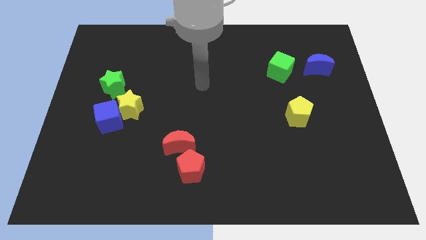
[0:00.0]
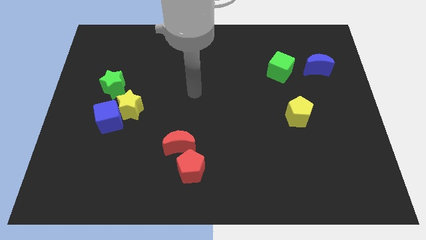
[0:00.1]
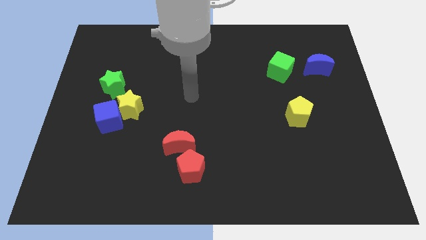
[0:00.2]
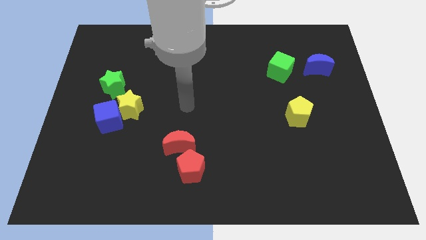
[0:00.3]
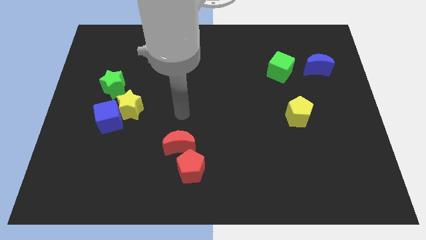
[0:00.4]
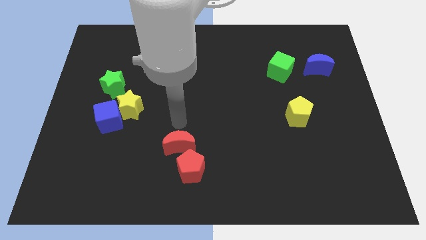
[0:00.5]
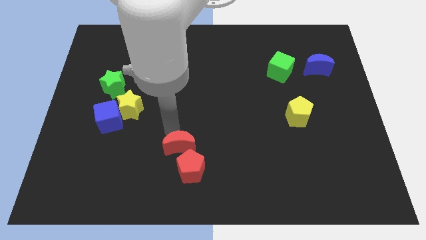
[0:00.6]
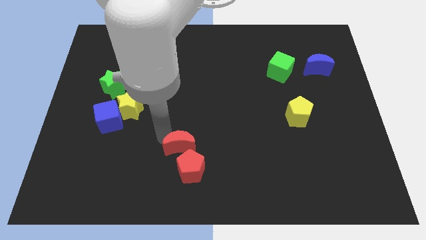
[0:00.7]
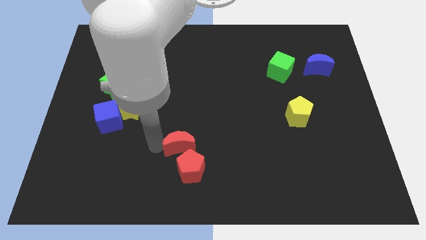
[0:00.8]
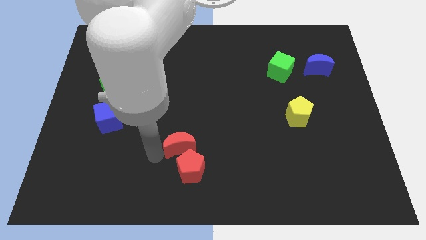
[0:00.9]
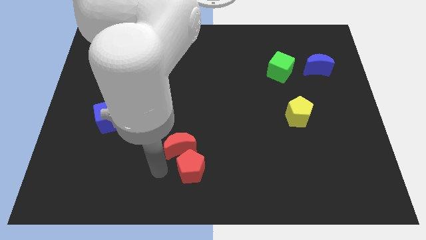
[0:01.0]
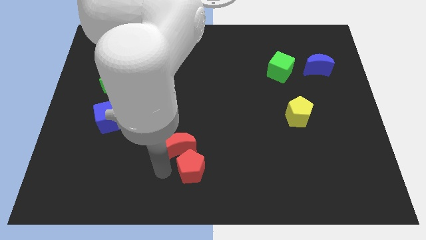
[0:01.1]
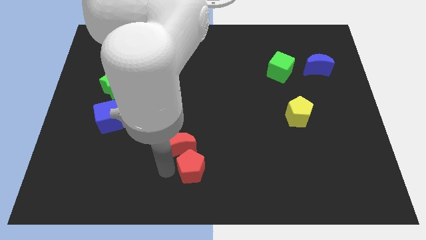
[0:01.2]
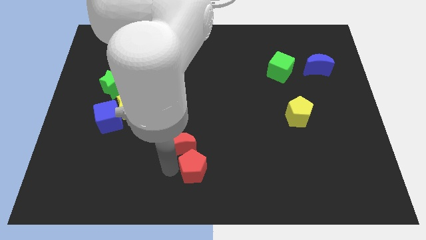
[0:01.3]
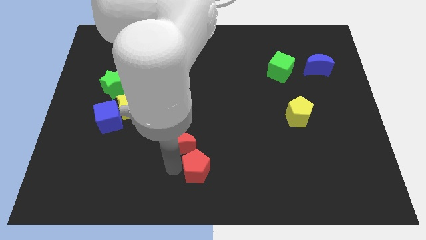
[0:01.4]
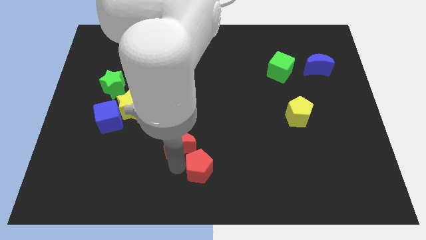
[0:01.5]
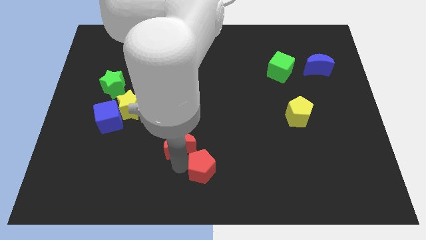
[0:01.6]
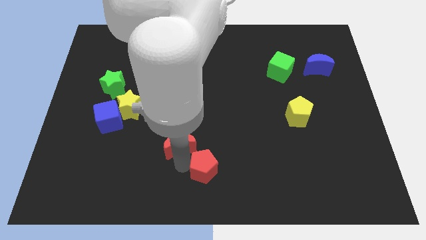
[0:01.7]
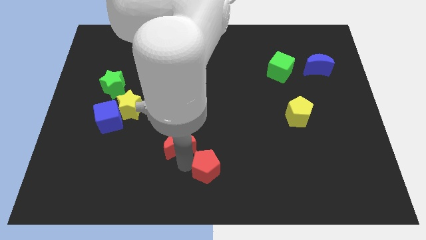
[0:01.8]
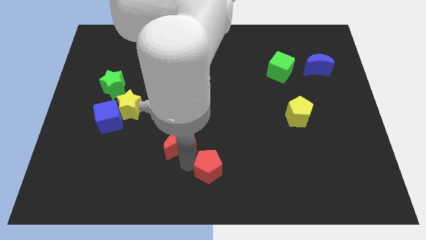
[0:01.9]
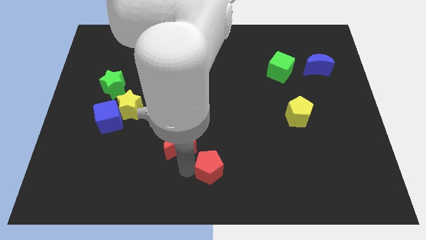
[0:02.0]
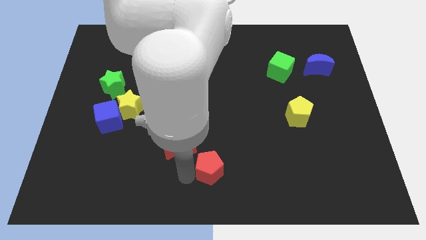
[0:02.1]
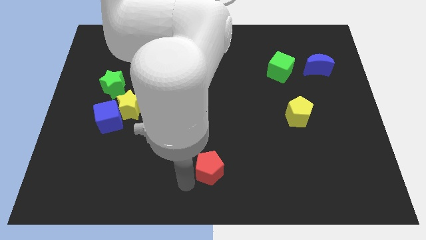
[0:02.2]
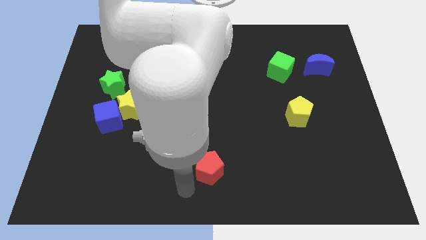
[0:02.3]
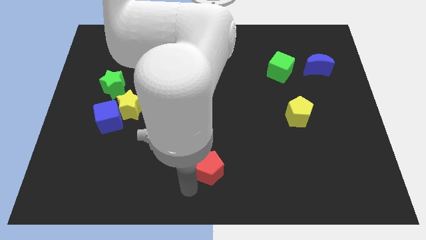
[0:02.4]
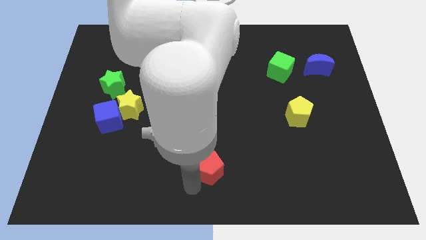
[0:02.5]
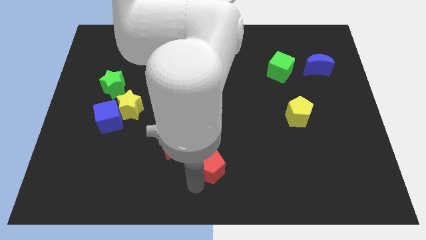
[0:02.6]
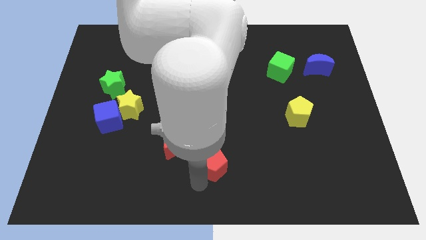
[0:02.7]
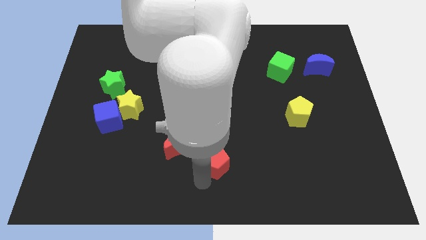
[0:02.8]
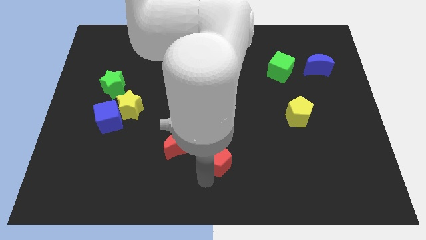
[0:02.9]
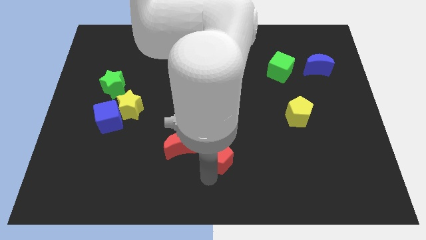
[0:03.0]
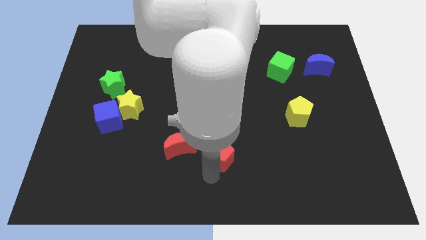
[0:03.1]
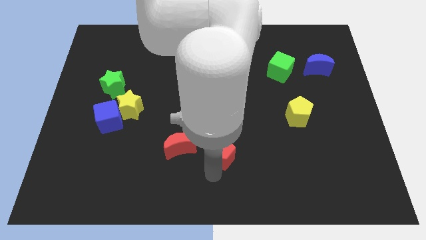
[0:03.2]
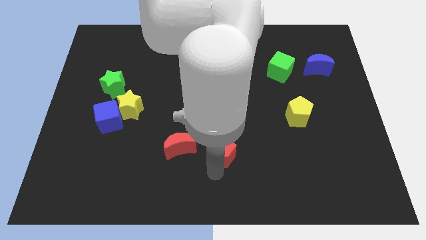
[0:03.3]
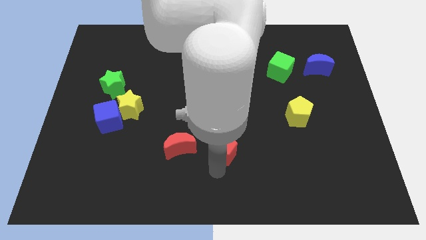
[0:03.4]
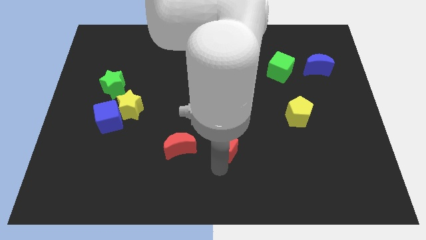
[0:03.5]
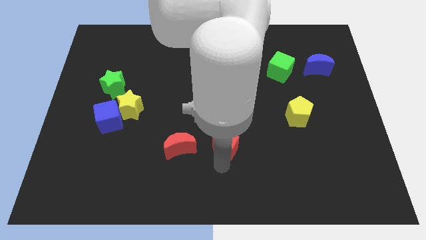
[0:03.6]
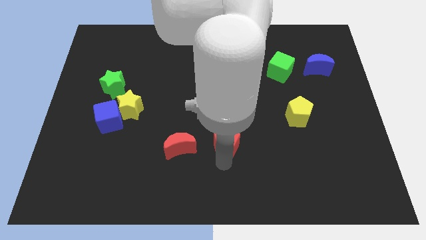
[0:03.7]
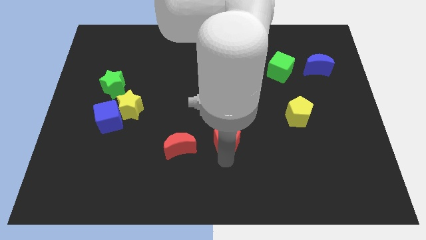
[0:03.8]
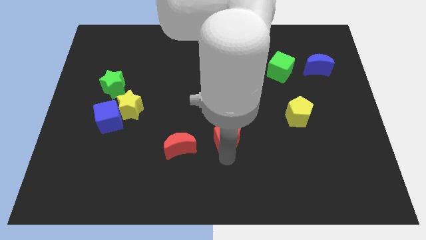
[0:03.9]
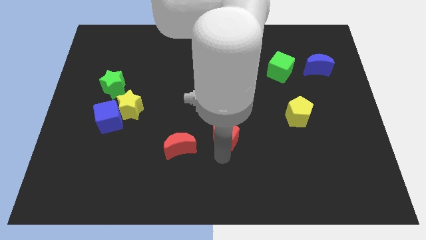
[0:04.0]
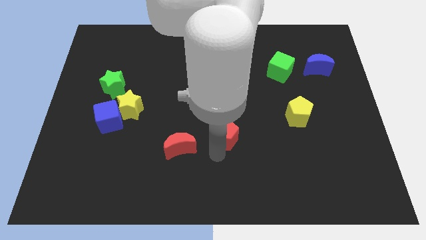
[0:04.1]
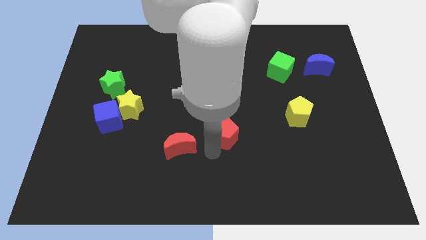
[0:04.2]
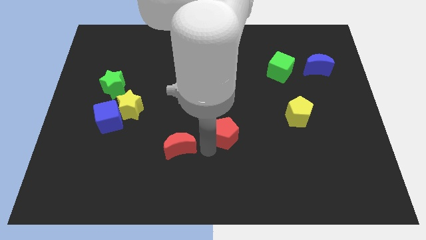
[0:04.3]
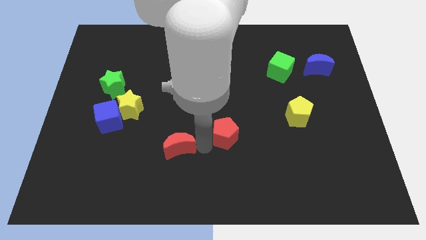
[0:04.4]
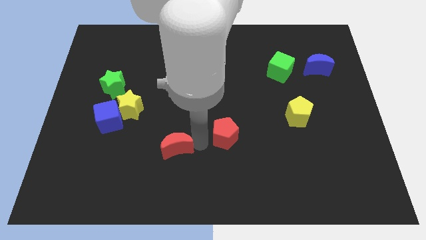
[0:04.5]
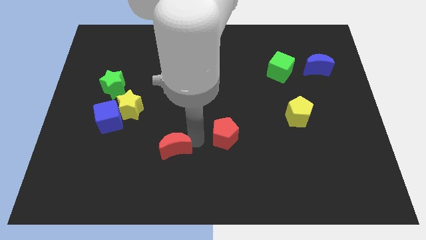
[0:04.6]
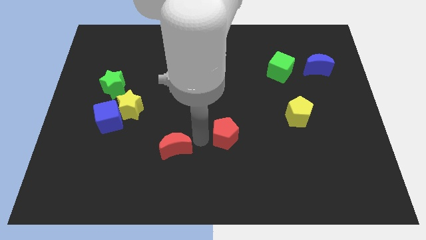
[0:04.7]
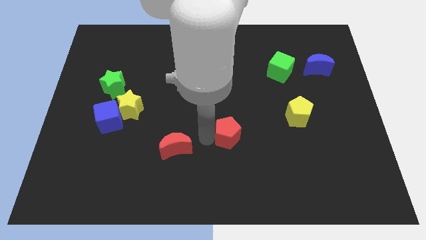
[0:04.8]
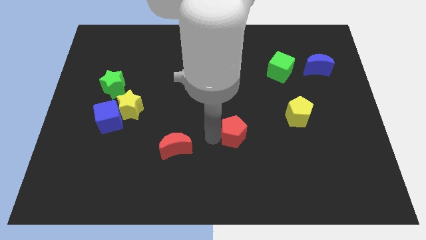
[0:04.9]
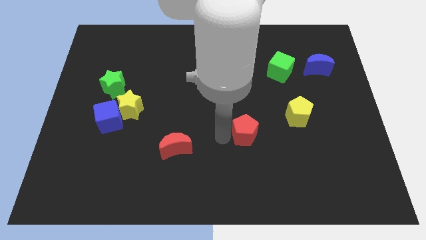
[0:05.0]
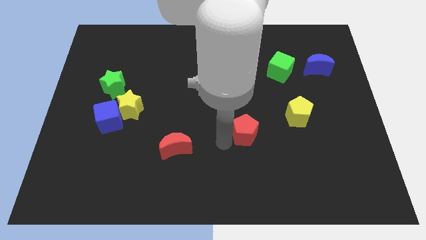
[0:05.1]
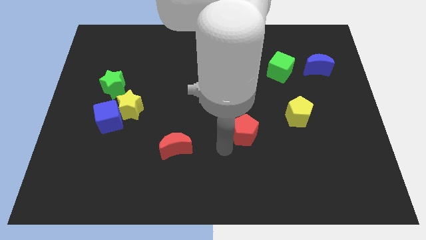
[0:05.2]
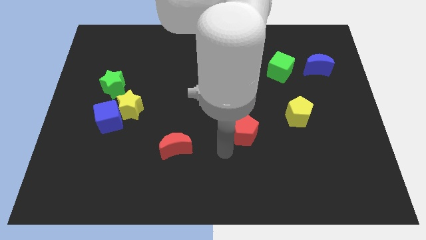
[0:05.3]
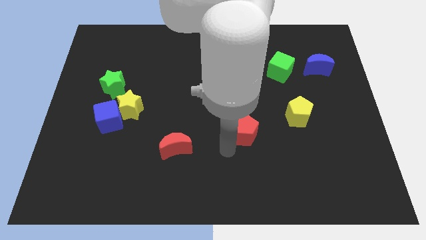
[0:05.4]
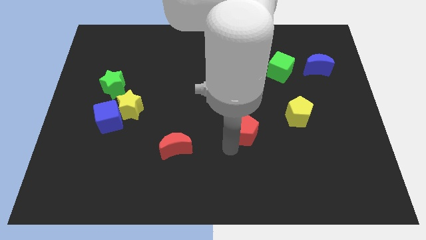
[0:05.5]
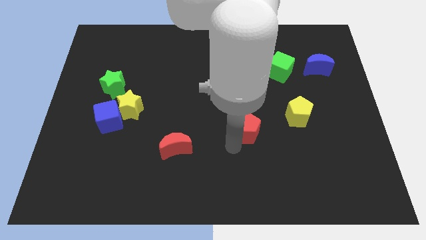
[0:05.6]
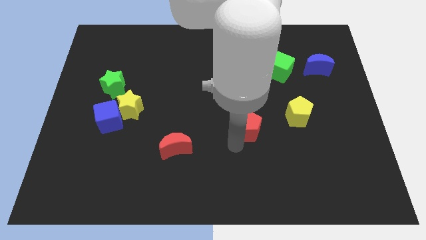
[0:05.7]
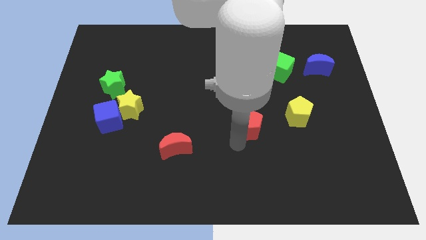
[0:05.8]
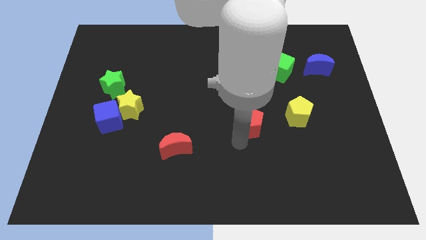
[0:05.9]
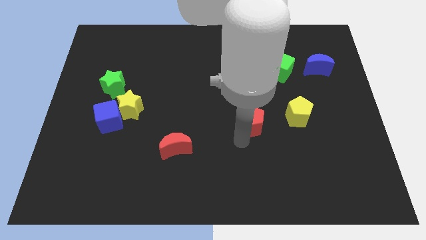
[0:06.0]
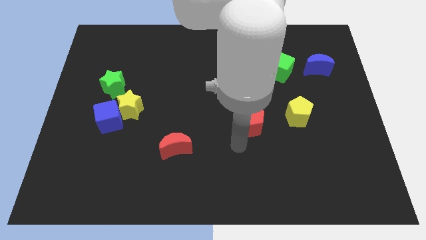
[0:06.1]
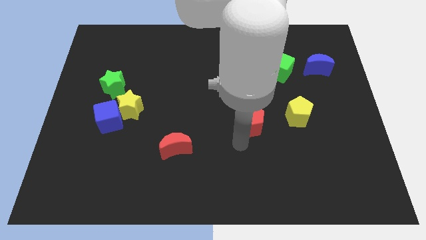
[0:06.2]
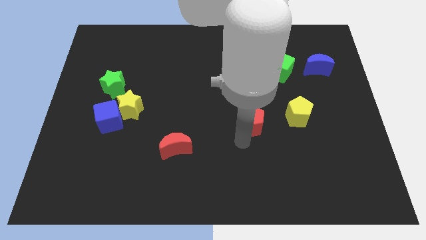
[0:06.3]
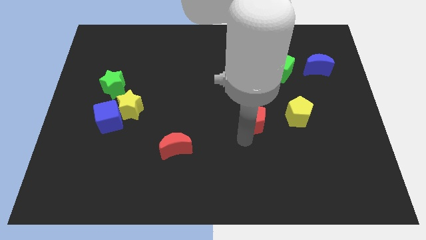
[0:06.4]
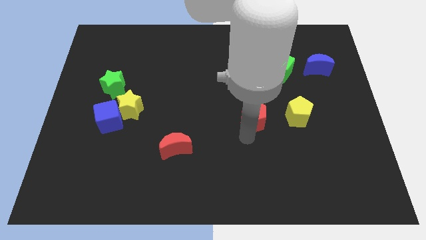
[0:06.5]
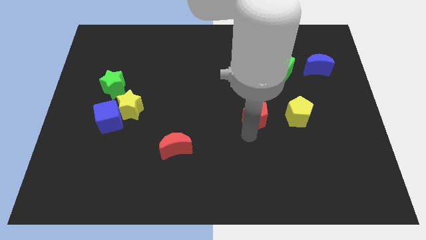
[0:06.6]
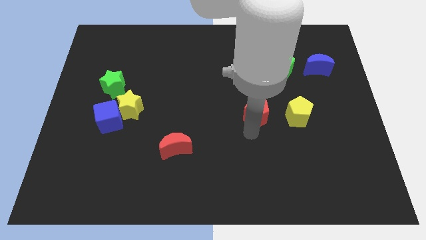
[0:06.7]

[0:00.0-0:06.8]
slide the red pentagon upwards and then right

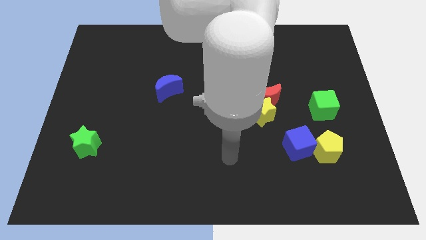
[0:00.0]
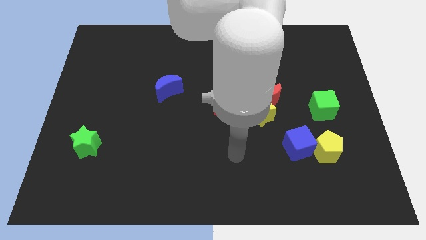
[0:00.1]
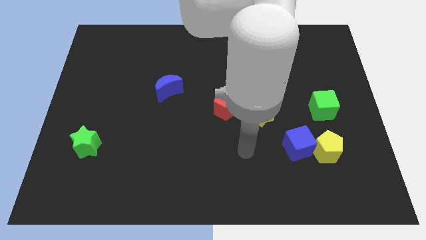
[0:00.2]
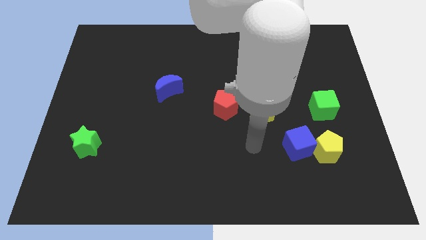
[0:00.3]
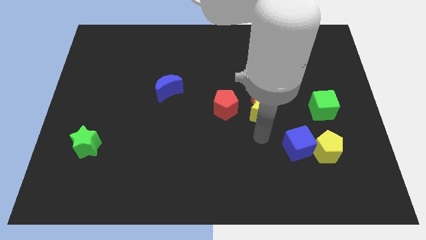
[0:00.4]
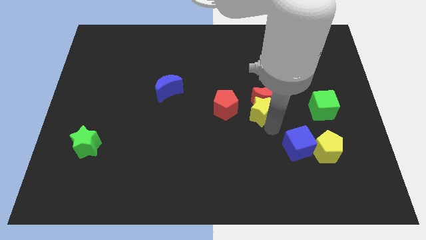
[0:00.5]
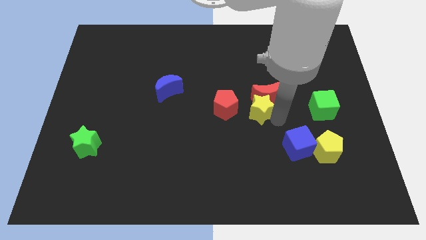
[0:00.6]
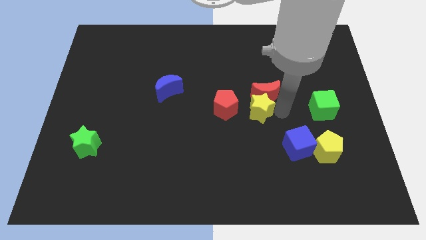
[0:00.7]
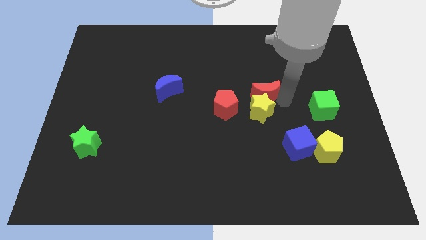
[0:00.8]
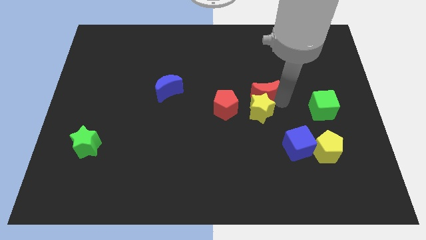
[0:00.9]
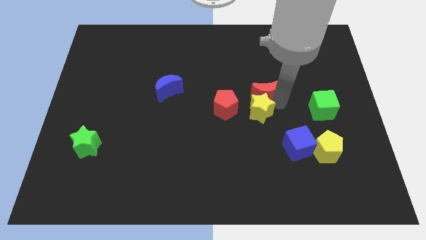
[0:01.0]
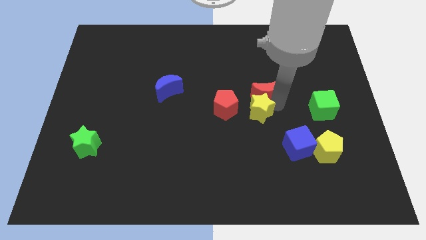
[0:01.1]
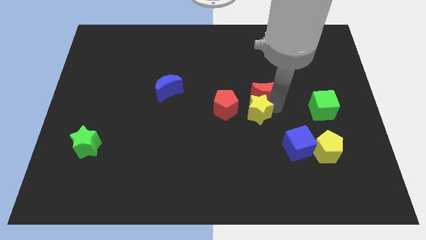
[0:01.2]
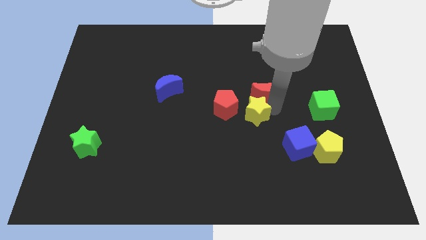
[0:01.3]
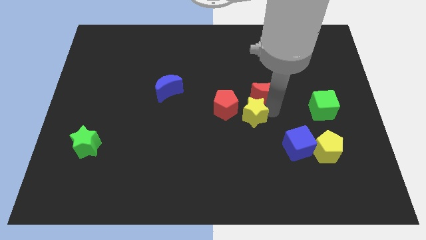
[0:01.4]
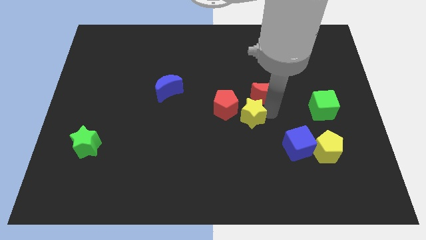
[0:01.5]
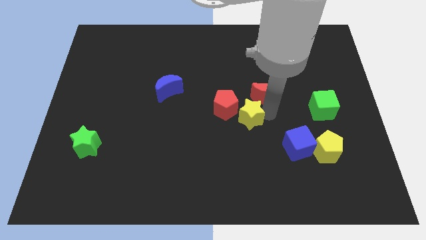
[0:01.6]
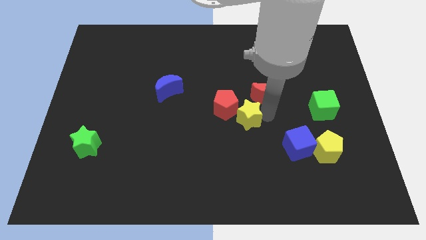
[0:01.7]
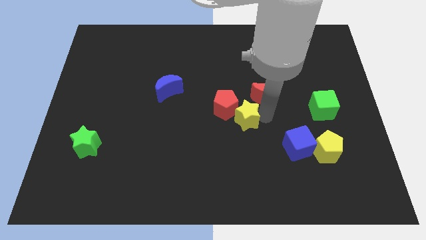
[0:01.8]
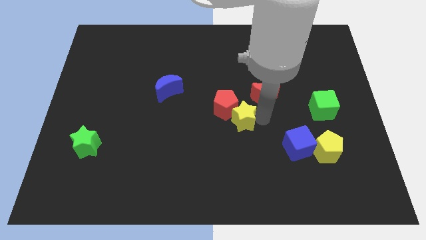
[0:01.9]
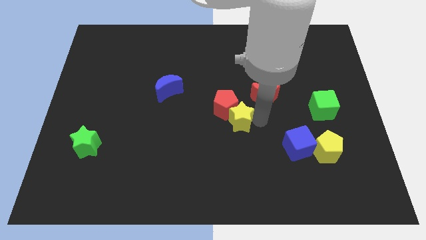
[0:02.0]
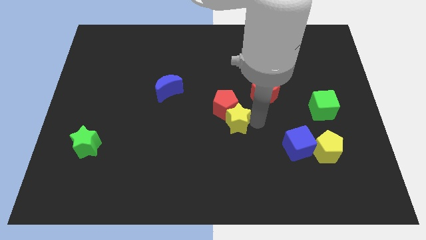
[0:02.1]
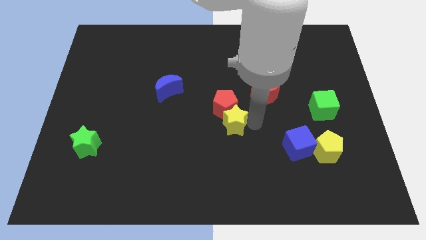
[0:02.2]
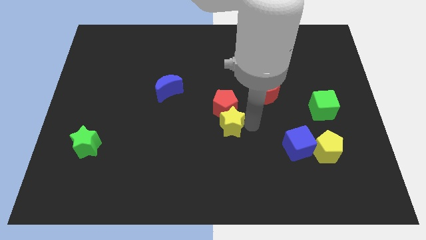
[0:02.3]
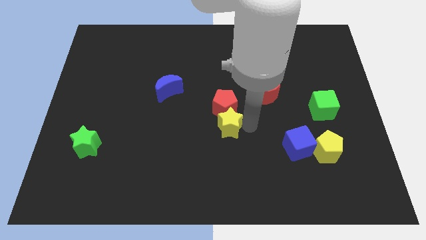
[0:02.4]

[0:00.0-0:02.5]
push the yellow star left a little bit
